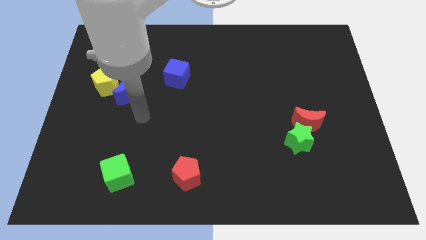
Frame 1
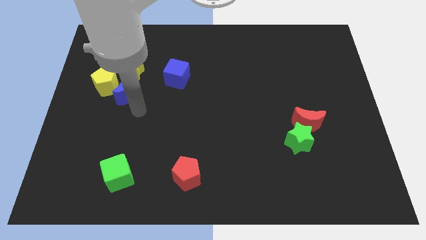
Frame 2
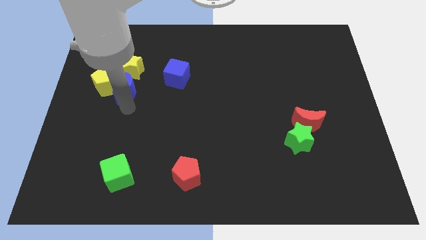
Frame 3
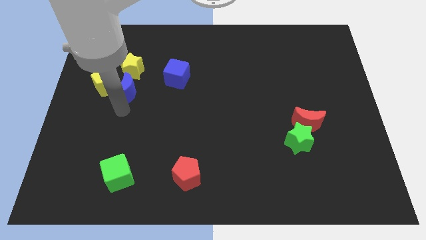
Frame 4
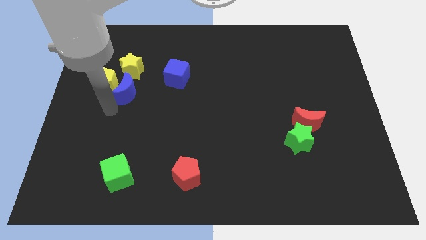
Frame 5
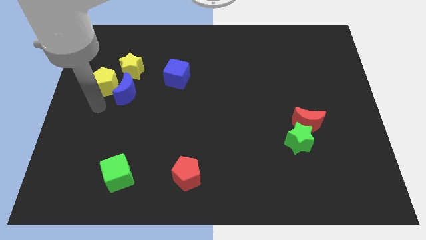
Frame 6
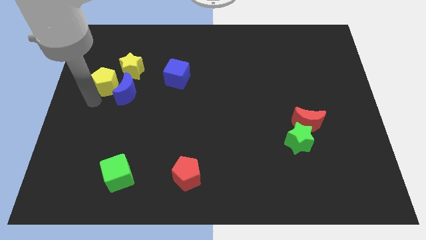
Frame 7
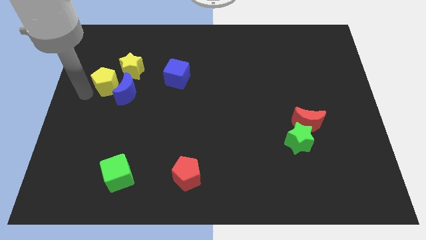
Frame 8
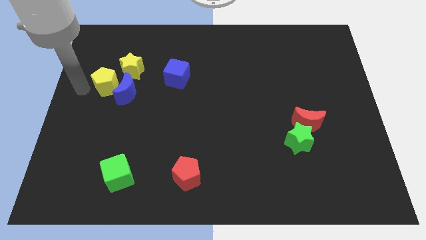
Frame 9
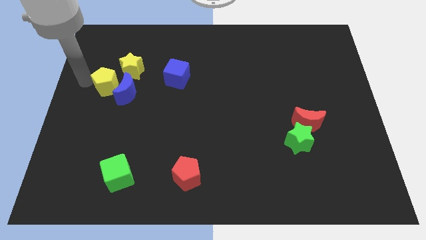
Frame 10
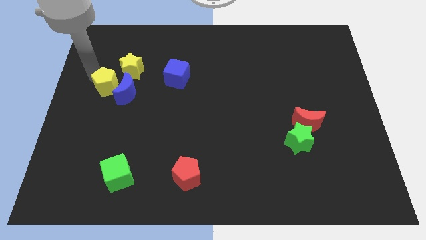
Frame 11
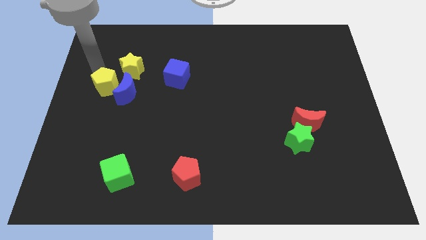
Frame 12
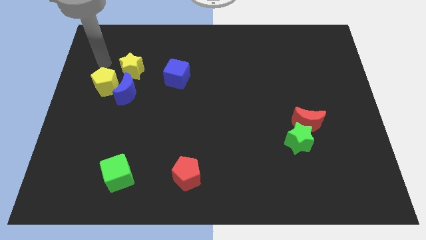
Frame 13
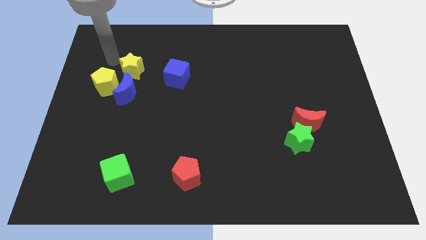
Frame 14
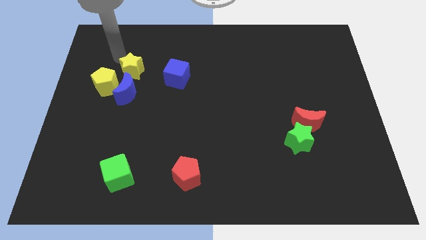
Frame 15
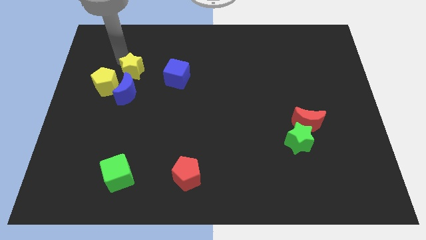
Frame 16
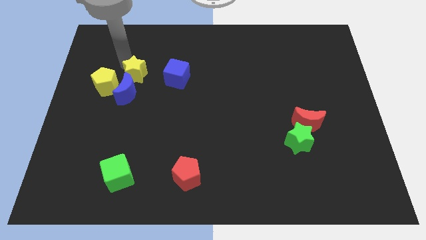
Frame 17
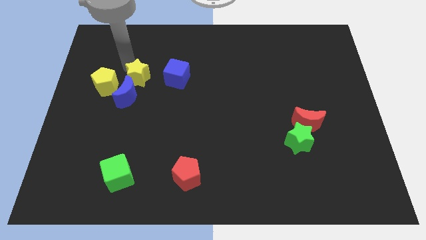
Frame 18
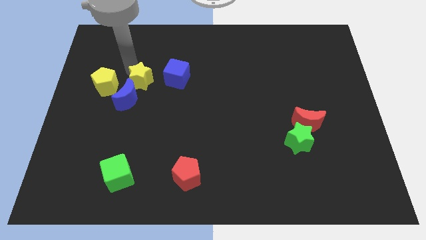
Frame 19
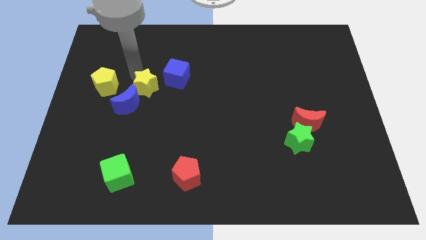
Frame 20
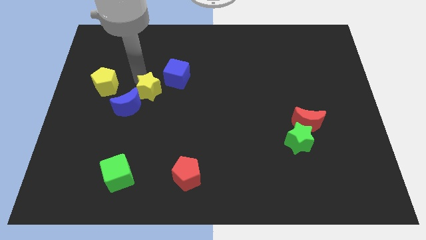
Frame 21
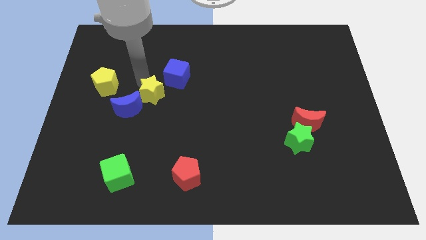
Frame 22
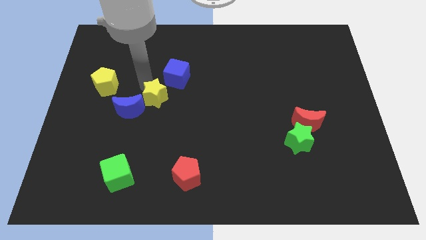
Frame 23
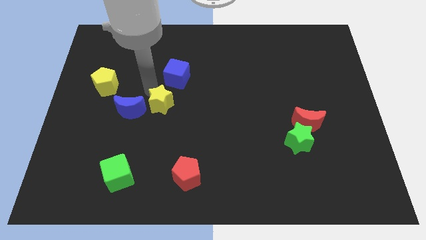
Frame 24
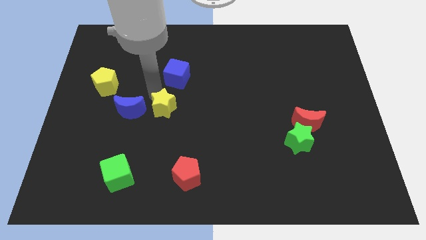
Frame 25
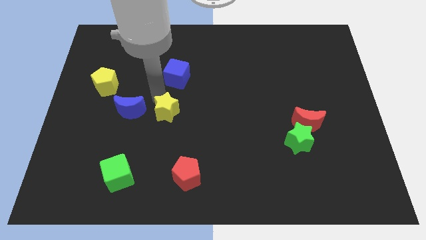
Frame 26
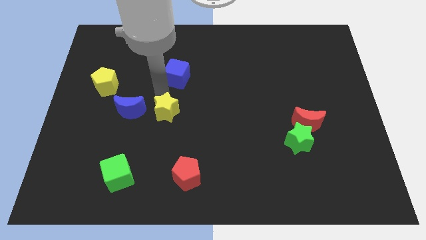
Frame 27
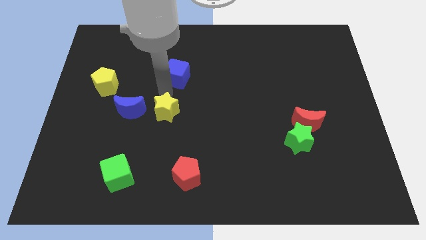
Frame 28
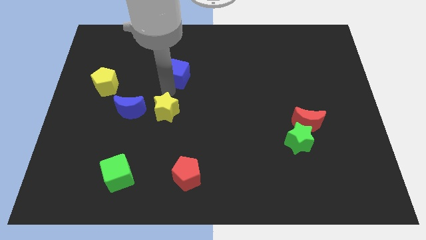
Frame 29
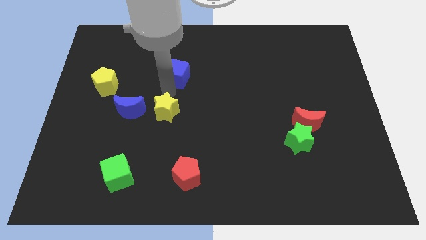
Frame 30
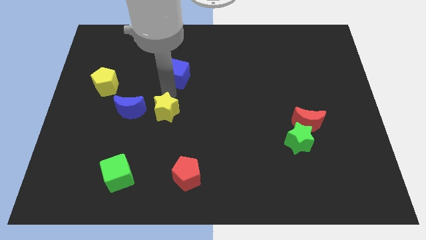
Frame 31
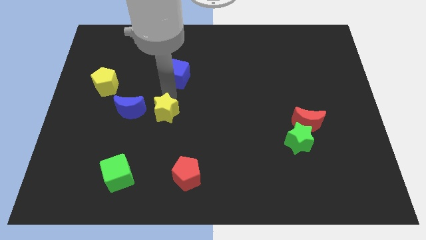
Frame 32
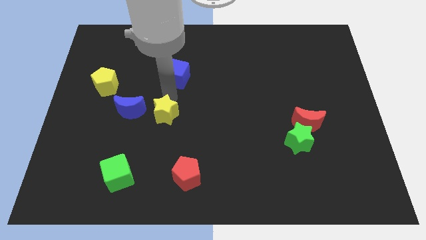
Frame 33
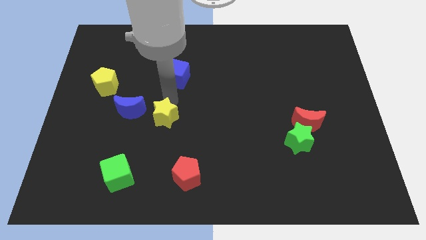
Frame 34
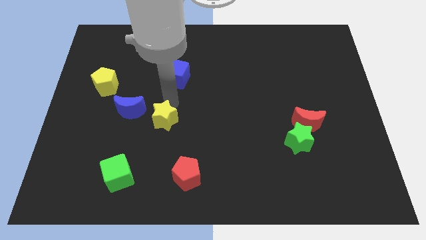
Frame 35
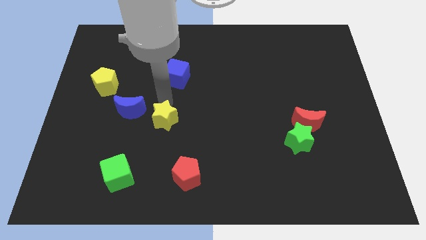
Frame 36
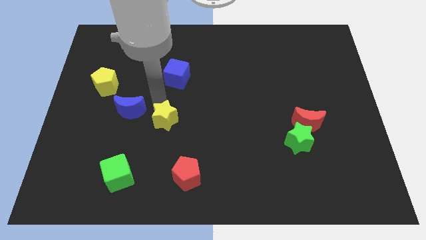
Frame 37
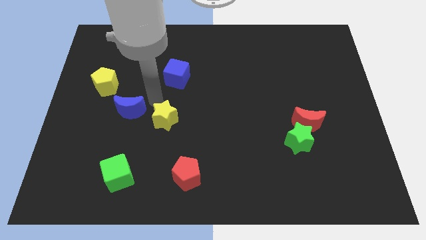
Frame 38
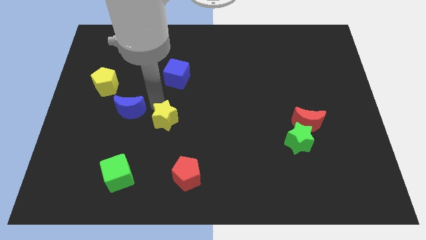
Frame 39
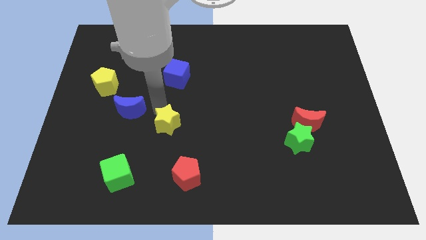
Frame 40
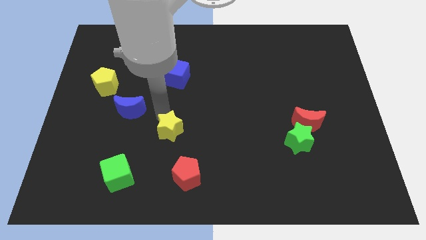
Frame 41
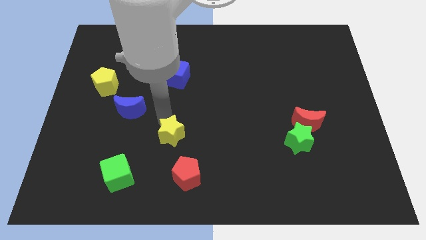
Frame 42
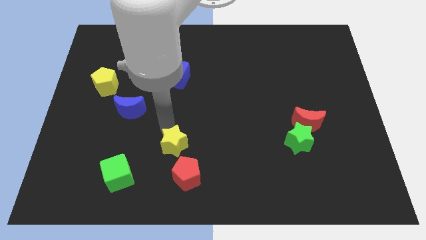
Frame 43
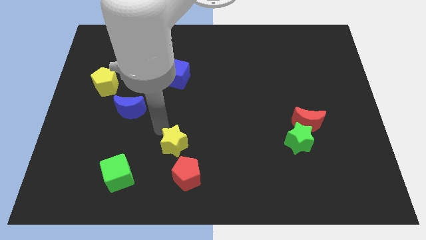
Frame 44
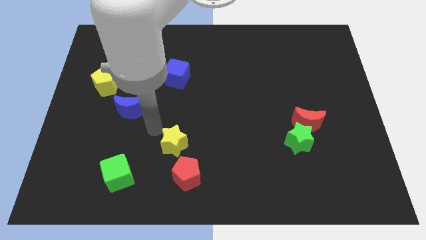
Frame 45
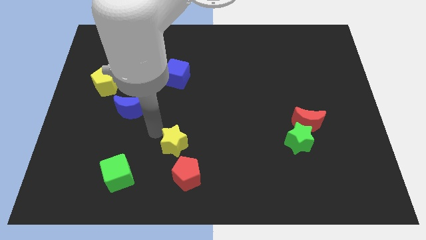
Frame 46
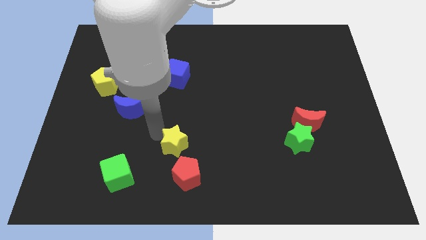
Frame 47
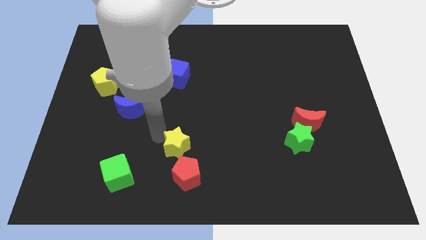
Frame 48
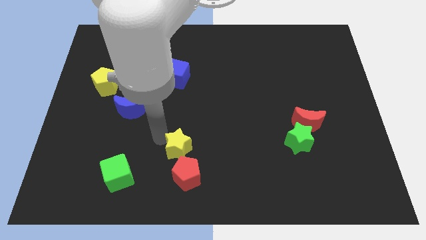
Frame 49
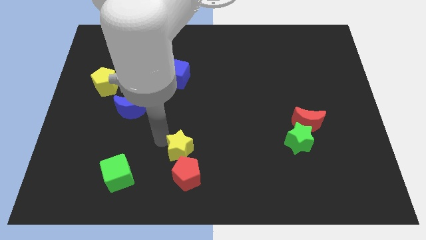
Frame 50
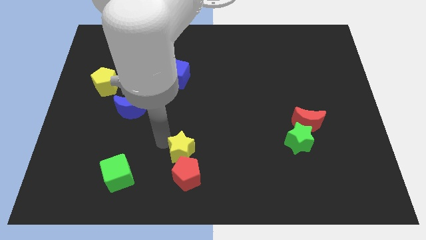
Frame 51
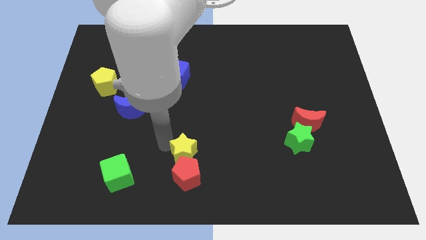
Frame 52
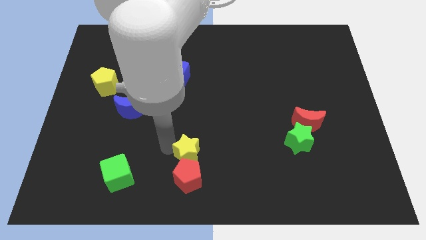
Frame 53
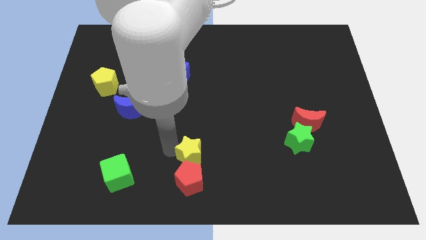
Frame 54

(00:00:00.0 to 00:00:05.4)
put the yellow star to the bottom

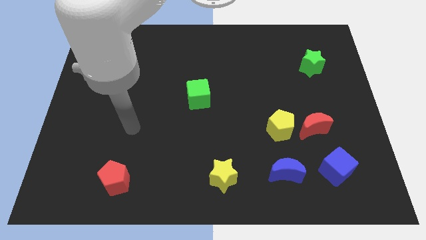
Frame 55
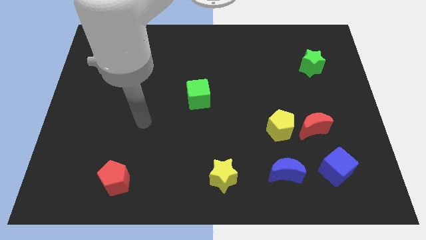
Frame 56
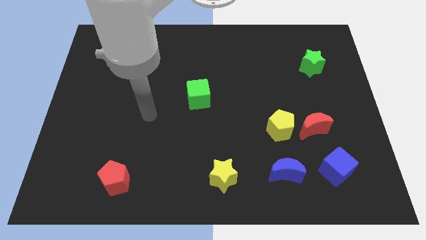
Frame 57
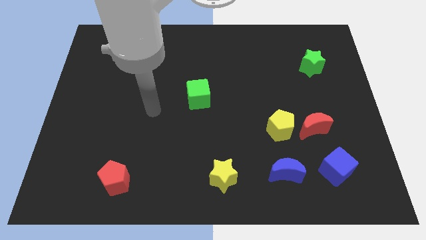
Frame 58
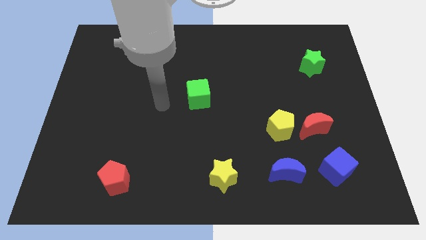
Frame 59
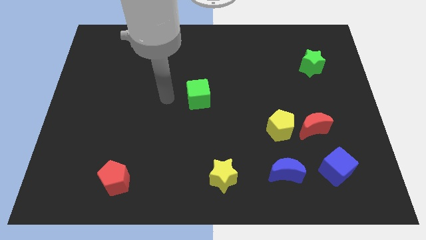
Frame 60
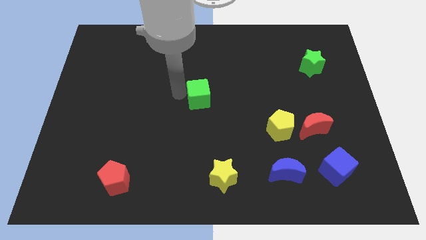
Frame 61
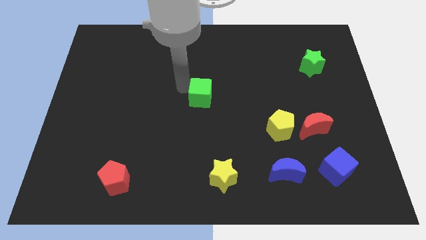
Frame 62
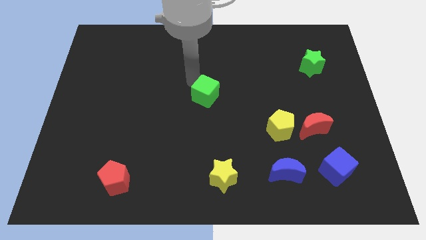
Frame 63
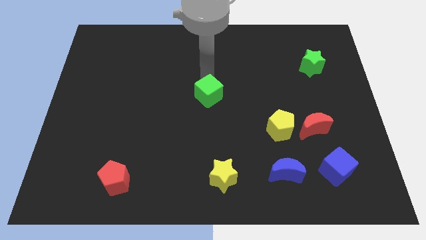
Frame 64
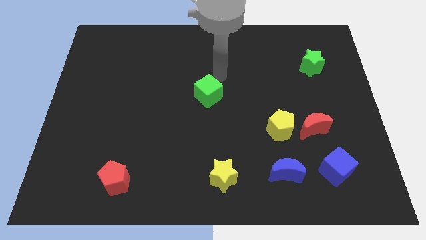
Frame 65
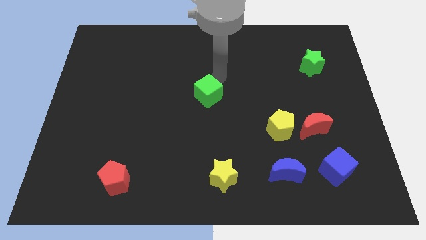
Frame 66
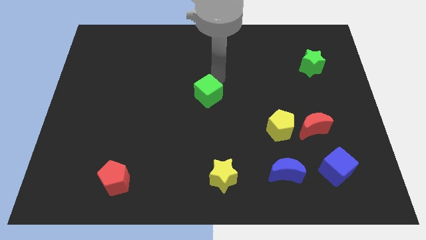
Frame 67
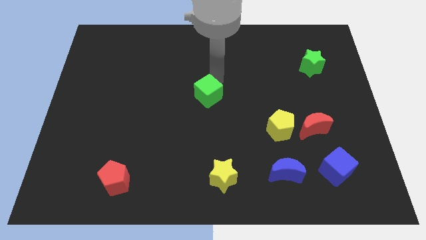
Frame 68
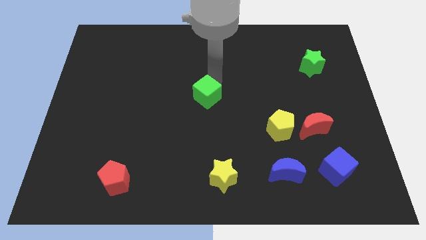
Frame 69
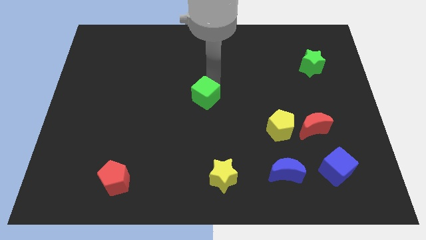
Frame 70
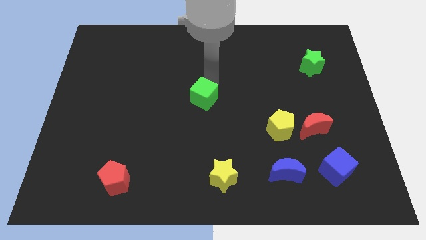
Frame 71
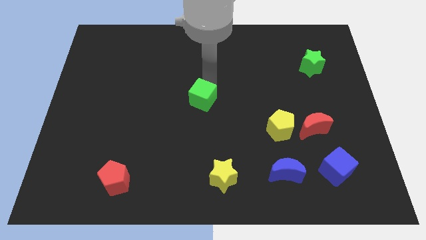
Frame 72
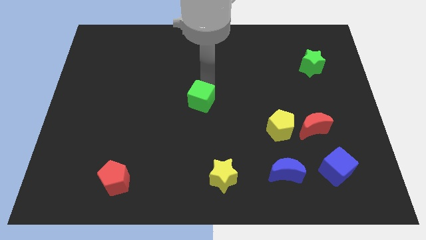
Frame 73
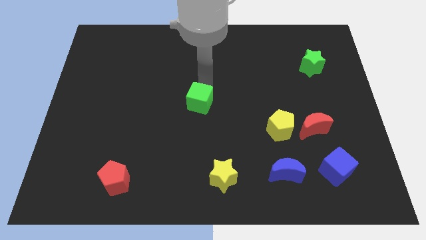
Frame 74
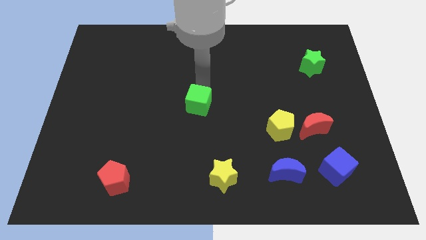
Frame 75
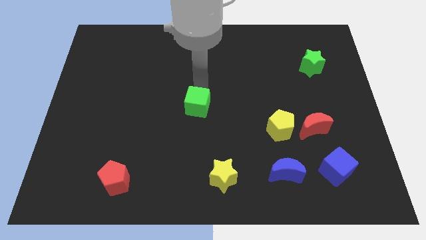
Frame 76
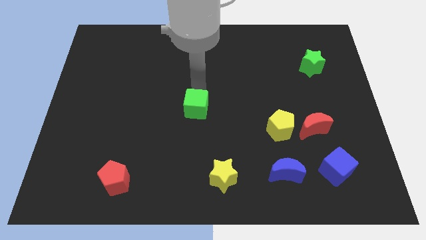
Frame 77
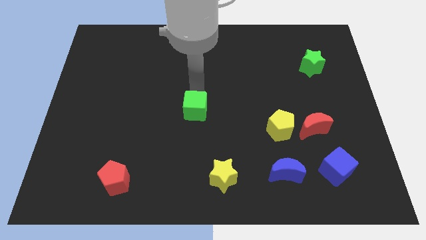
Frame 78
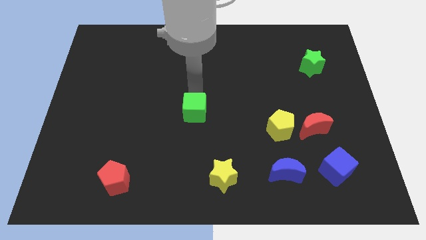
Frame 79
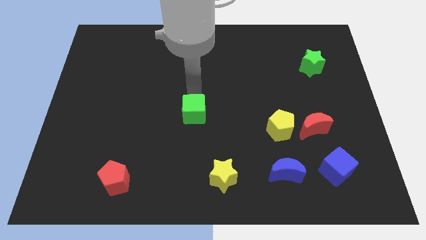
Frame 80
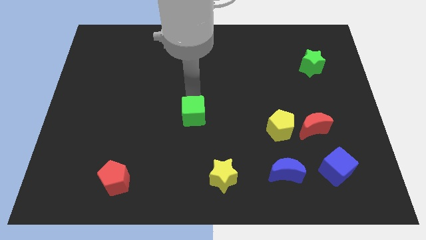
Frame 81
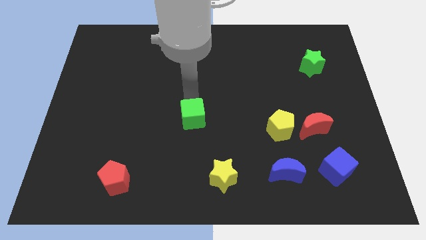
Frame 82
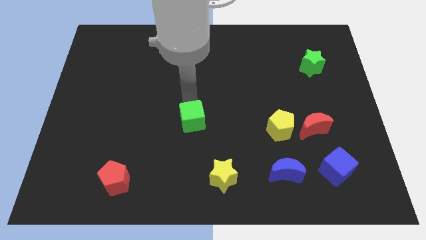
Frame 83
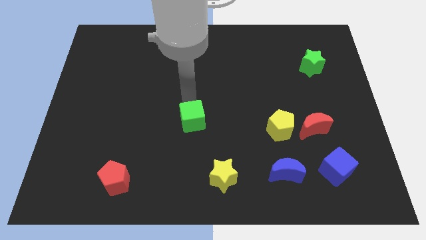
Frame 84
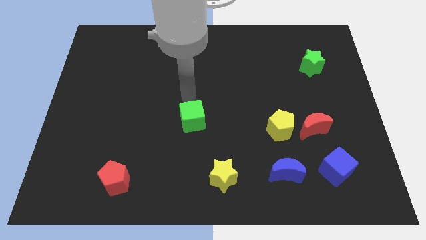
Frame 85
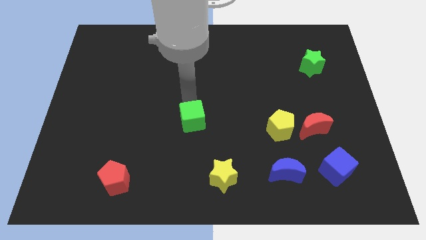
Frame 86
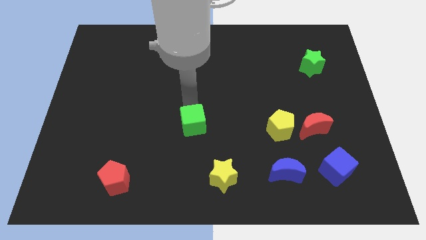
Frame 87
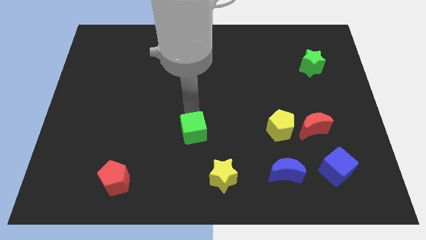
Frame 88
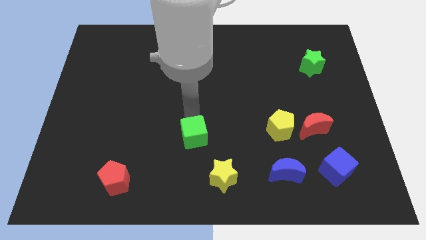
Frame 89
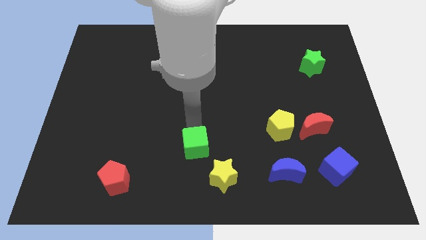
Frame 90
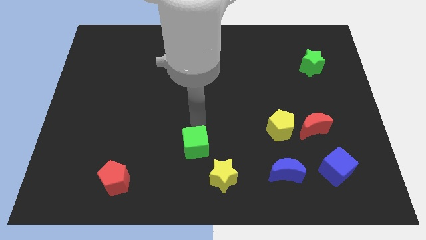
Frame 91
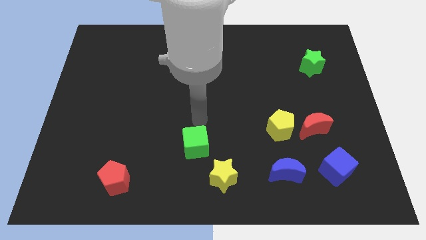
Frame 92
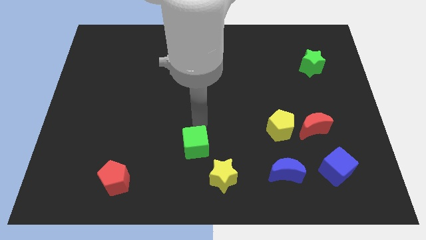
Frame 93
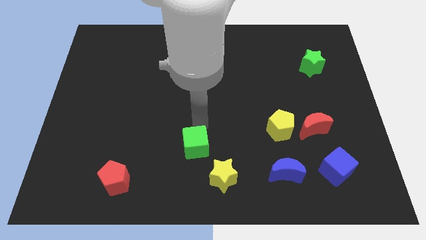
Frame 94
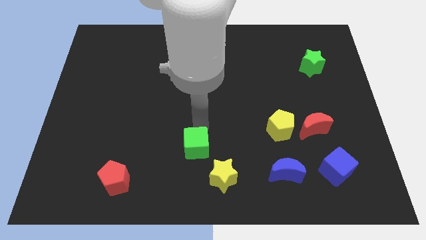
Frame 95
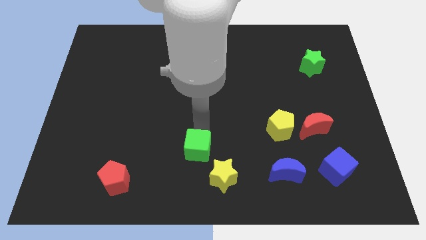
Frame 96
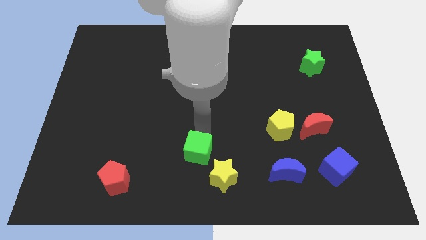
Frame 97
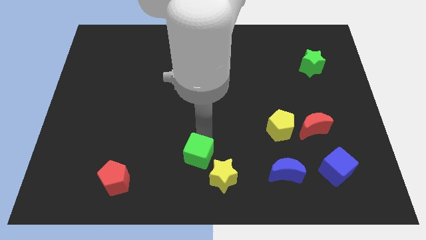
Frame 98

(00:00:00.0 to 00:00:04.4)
slide the green cube to the bottom side
